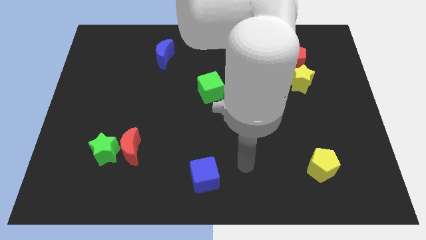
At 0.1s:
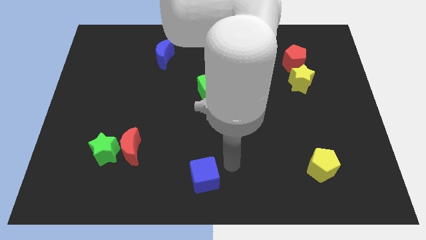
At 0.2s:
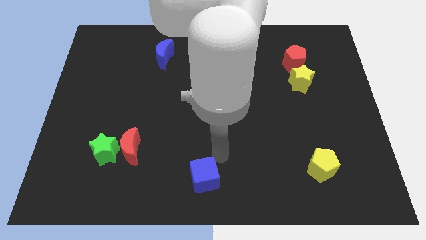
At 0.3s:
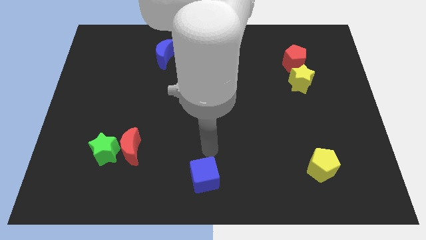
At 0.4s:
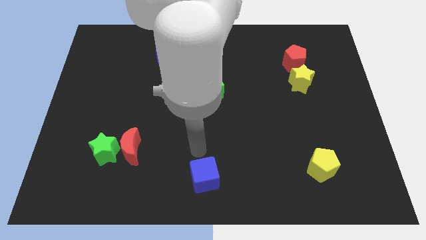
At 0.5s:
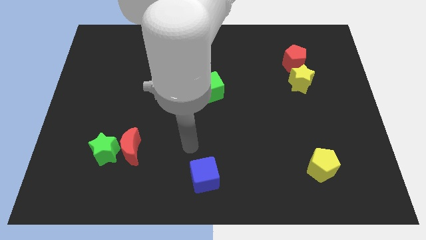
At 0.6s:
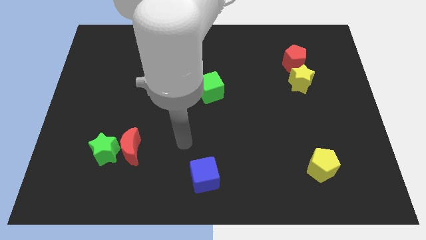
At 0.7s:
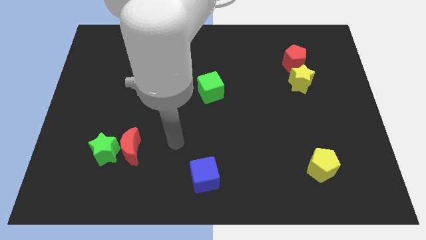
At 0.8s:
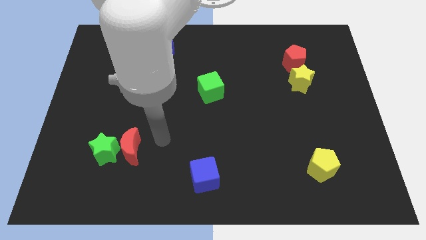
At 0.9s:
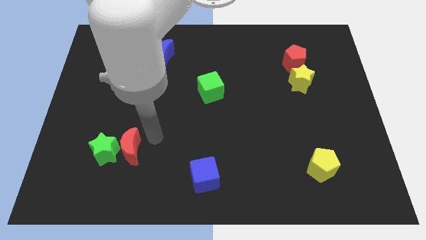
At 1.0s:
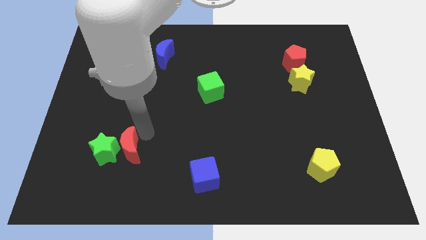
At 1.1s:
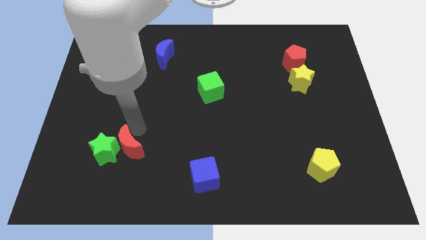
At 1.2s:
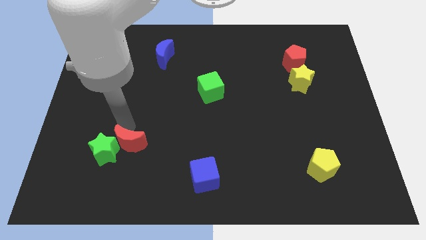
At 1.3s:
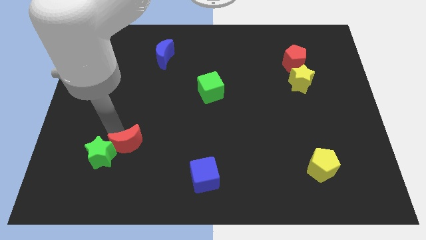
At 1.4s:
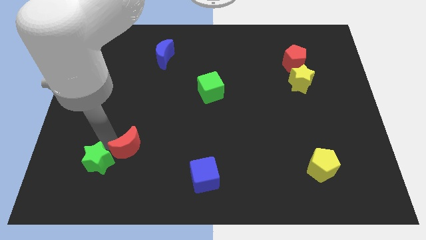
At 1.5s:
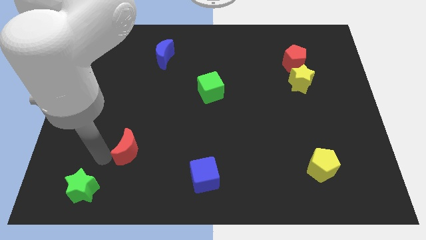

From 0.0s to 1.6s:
separate the red moon from the green star

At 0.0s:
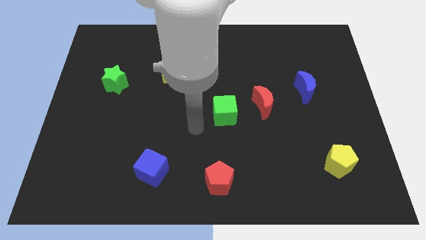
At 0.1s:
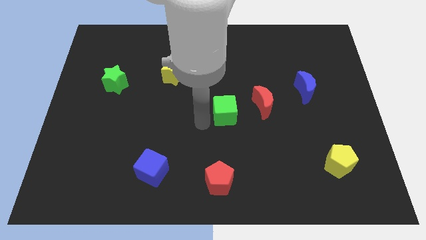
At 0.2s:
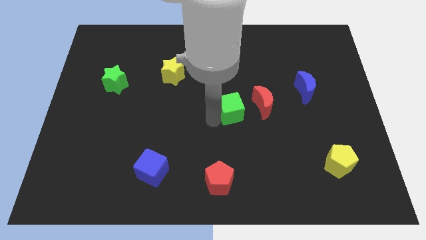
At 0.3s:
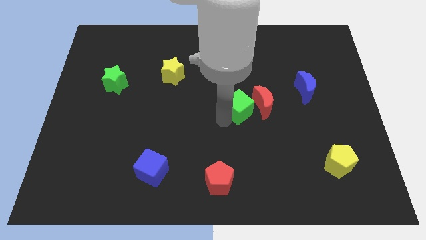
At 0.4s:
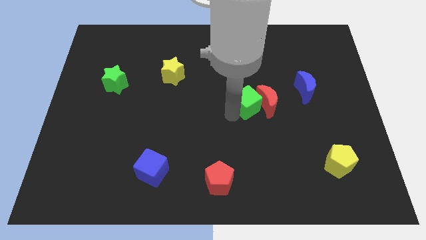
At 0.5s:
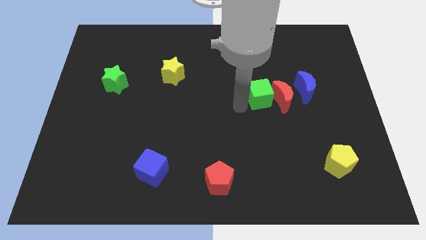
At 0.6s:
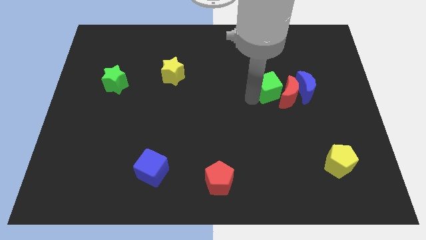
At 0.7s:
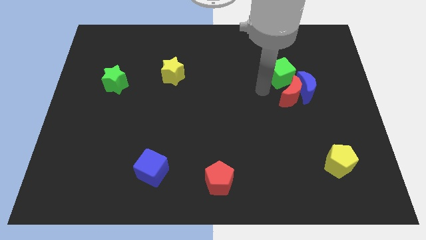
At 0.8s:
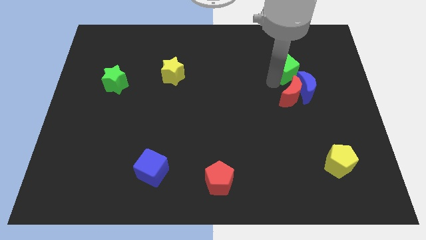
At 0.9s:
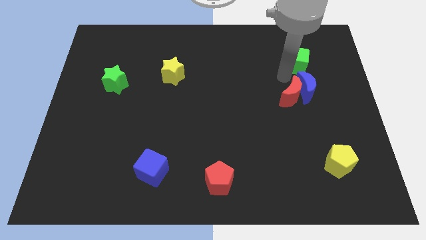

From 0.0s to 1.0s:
separate the red moon from the green cube

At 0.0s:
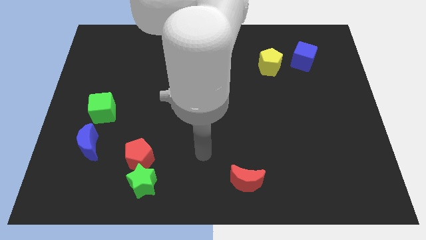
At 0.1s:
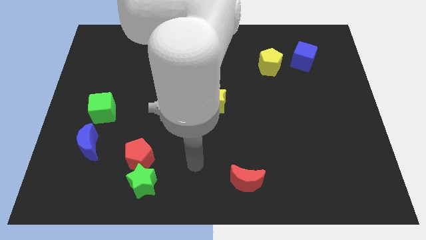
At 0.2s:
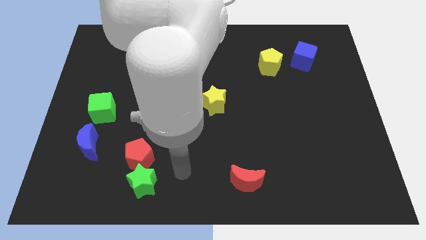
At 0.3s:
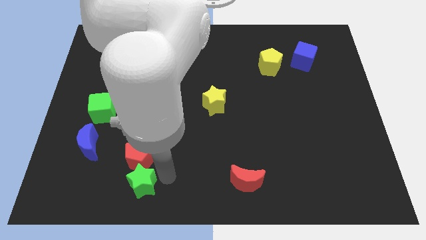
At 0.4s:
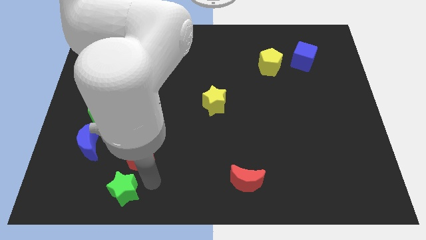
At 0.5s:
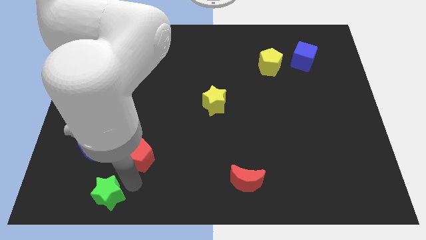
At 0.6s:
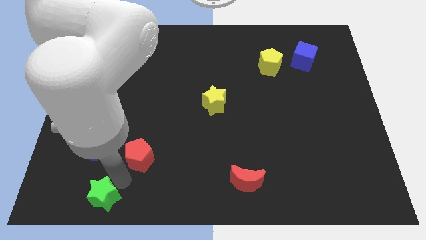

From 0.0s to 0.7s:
pull the red pentagon apart from the green star

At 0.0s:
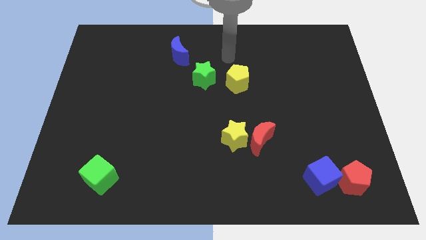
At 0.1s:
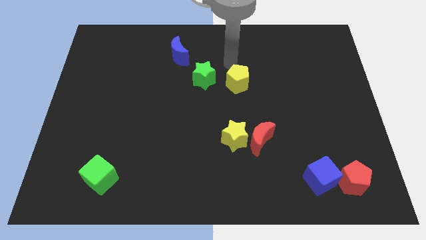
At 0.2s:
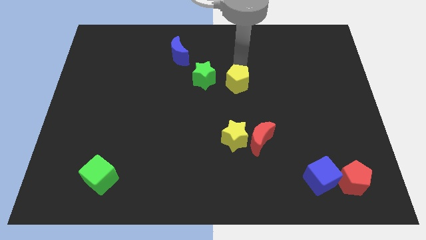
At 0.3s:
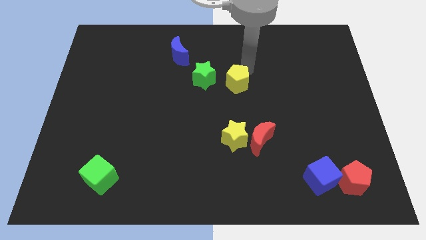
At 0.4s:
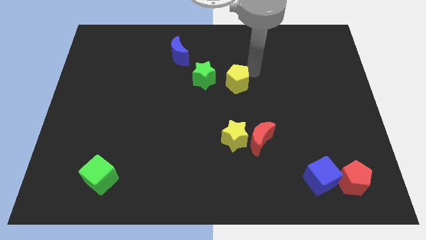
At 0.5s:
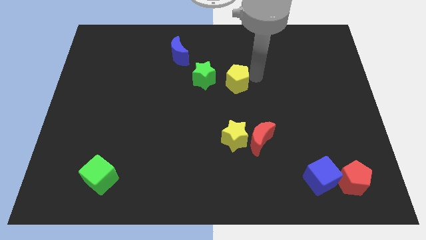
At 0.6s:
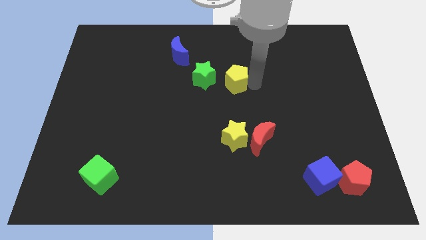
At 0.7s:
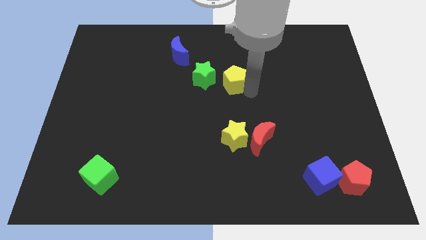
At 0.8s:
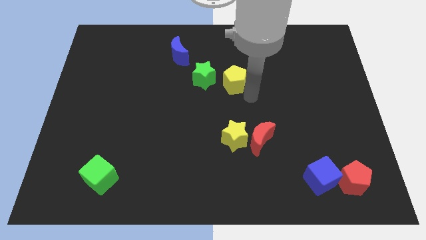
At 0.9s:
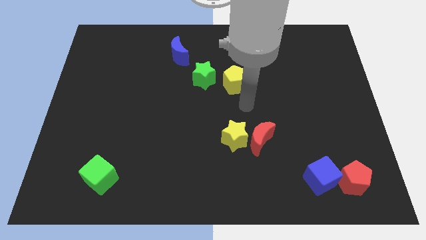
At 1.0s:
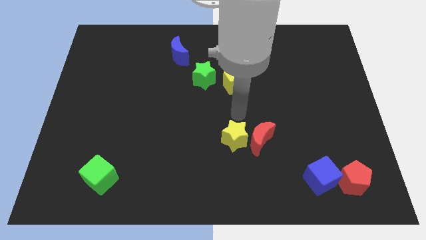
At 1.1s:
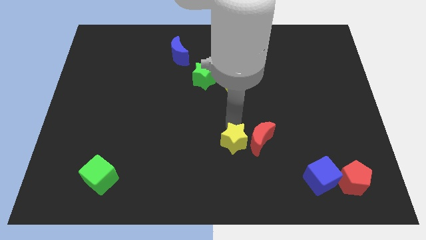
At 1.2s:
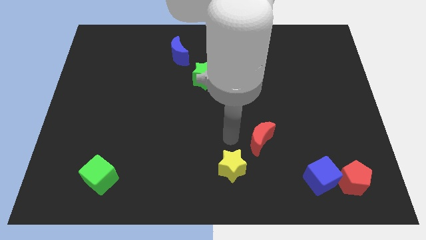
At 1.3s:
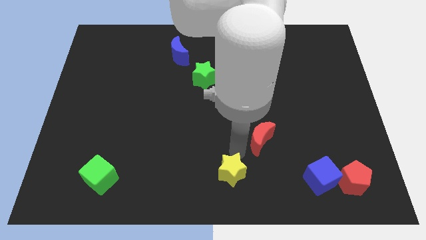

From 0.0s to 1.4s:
move the red moon away from the yellow star

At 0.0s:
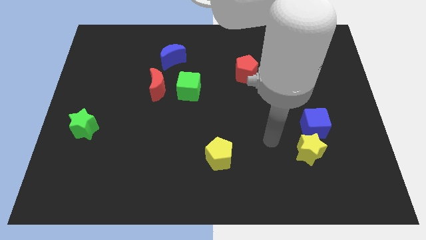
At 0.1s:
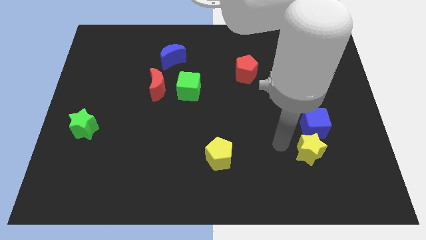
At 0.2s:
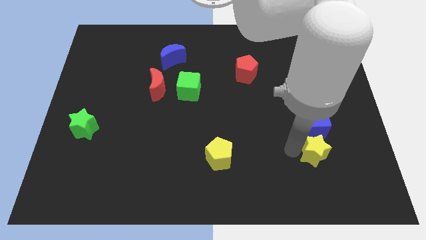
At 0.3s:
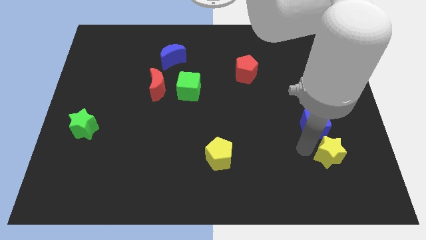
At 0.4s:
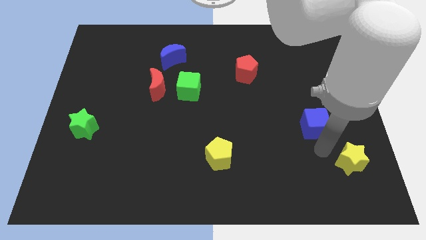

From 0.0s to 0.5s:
pull the blue cube apart from the yellow star

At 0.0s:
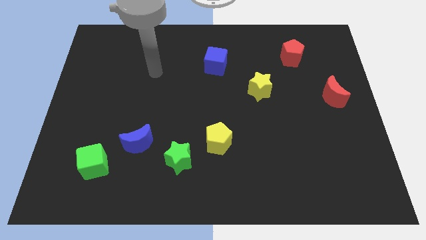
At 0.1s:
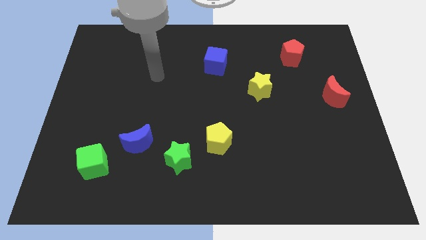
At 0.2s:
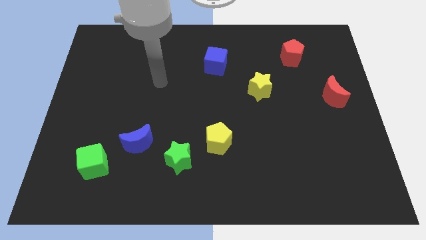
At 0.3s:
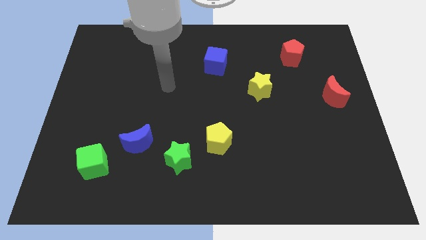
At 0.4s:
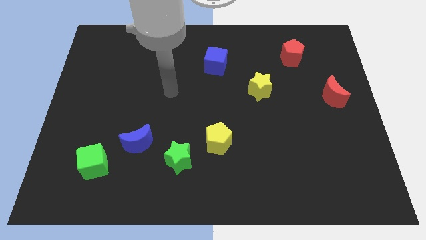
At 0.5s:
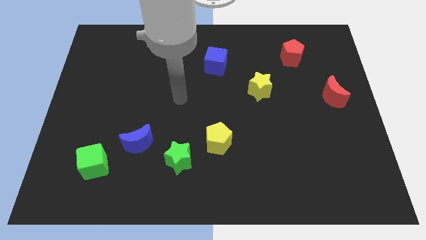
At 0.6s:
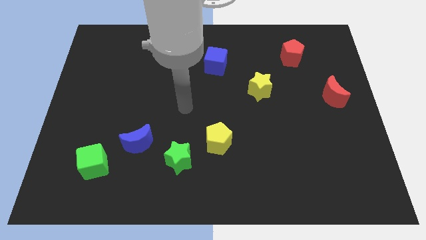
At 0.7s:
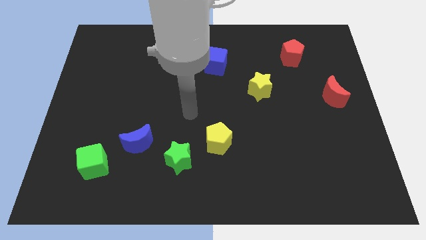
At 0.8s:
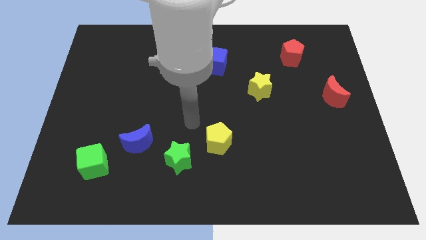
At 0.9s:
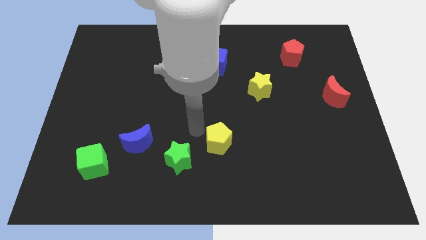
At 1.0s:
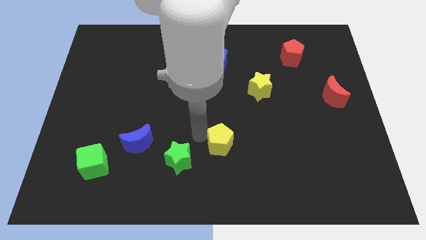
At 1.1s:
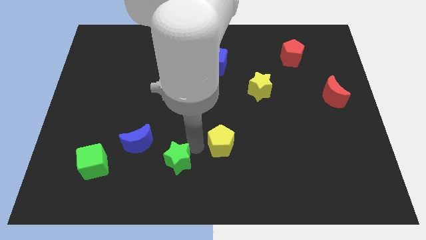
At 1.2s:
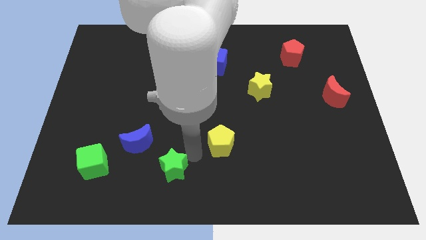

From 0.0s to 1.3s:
pull the yellow pentagon apart from the green star

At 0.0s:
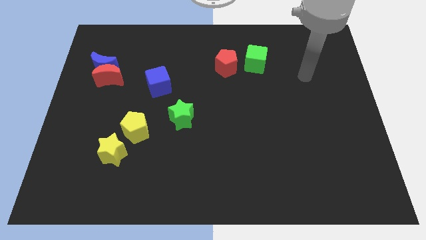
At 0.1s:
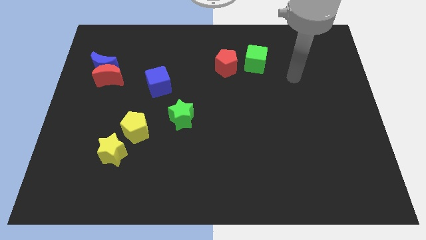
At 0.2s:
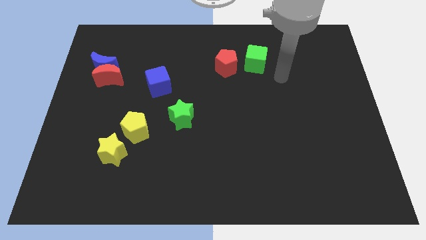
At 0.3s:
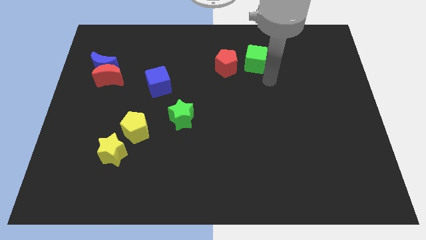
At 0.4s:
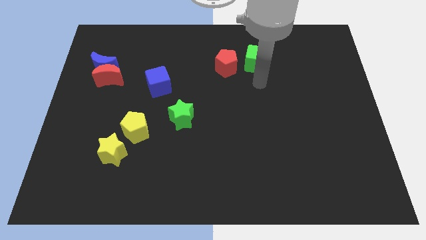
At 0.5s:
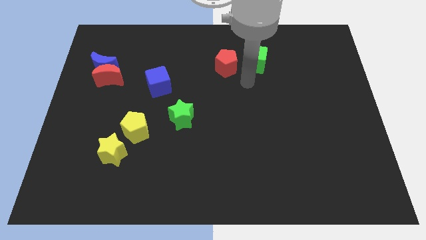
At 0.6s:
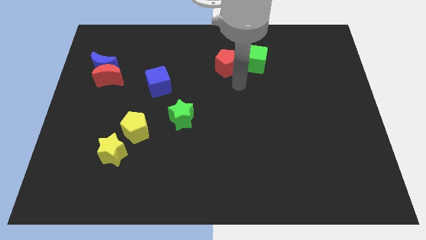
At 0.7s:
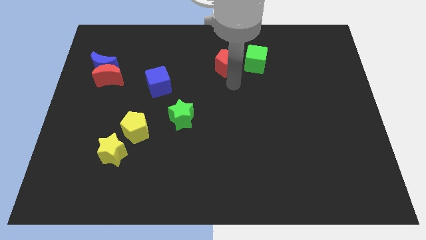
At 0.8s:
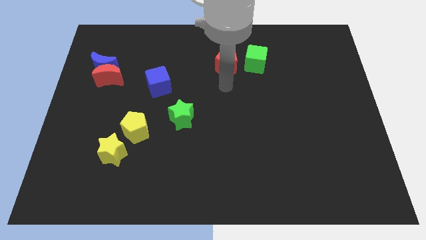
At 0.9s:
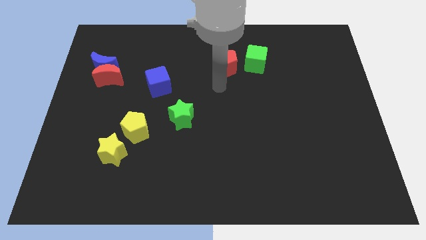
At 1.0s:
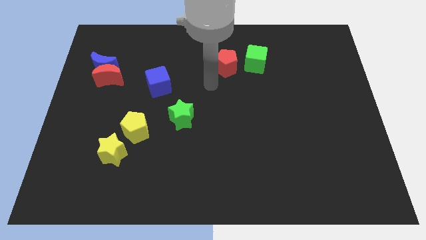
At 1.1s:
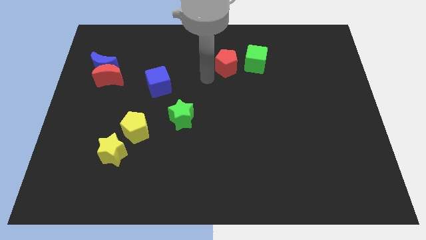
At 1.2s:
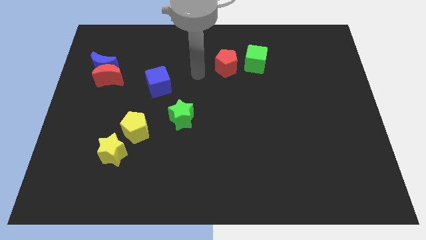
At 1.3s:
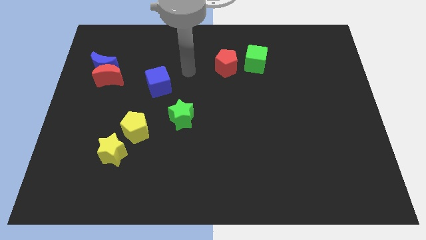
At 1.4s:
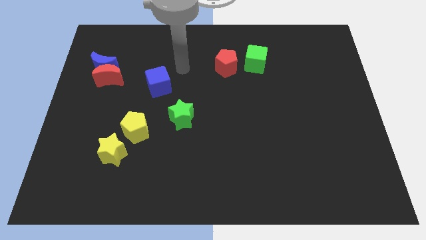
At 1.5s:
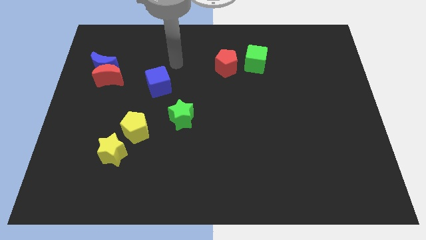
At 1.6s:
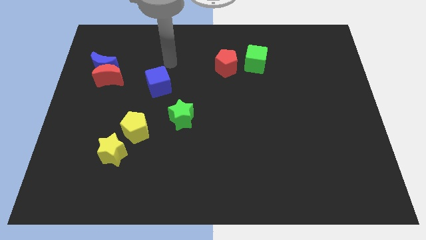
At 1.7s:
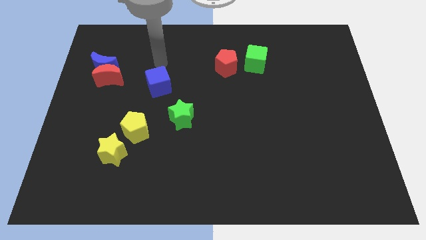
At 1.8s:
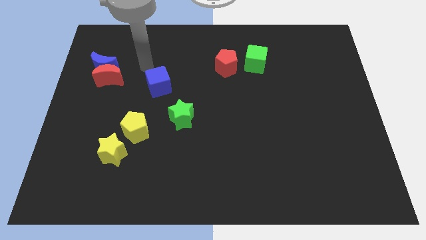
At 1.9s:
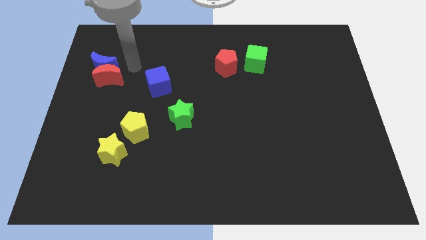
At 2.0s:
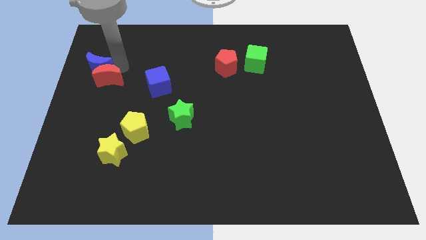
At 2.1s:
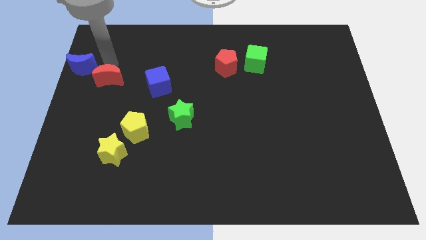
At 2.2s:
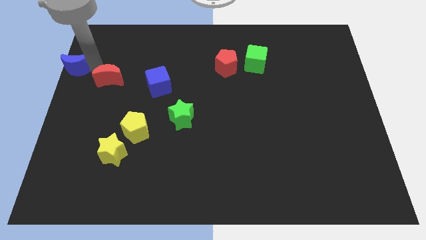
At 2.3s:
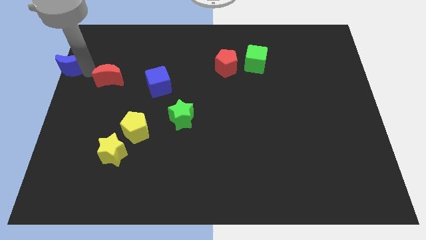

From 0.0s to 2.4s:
separate the red moon from the blue moon

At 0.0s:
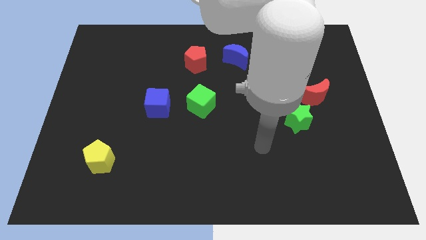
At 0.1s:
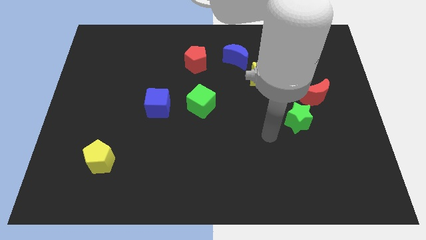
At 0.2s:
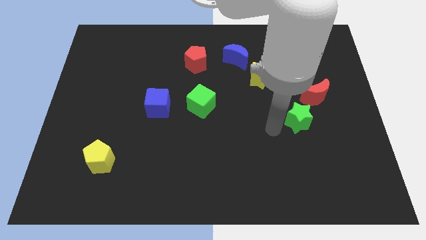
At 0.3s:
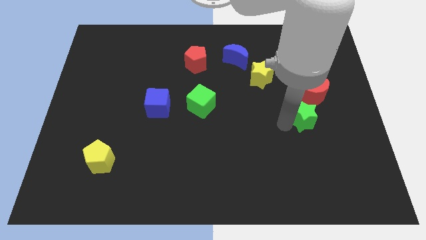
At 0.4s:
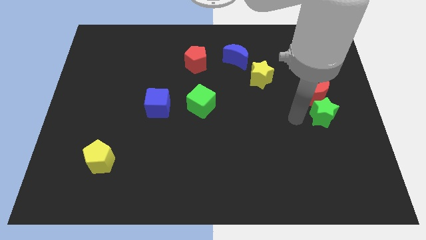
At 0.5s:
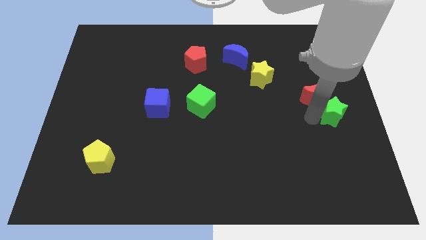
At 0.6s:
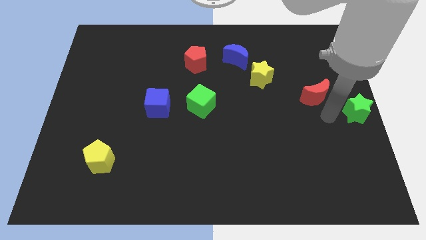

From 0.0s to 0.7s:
pull the red moon apart from the green star
